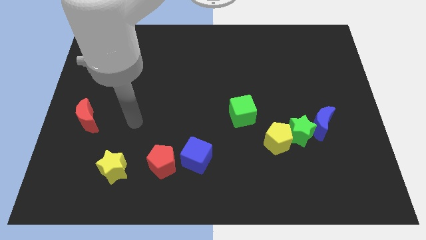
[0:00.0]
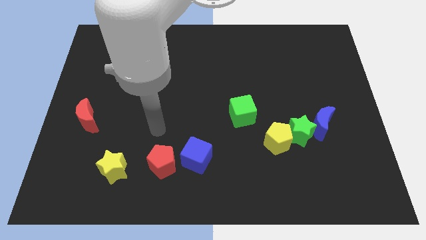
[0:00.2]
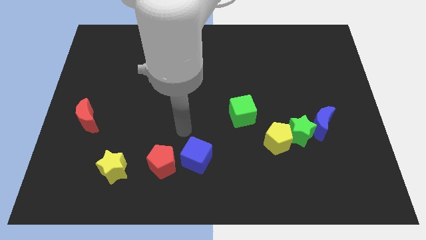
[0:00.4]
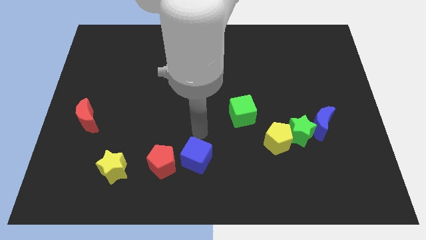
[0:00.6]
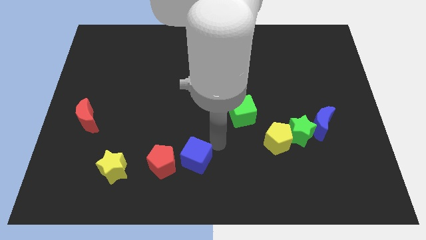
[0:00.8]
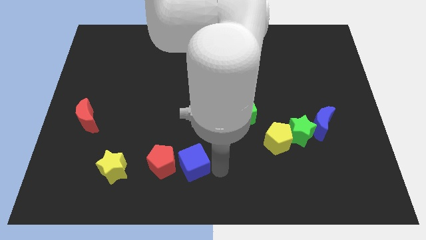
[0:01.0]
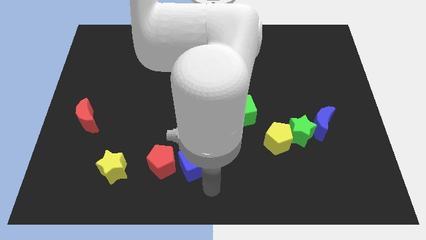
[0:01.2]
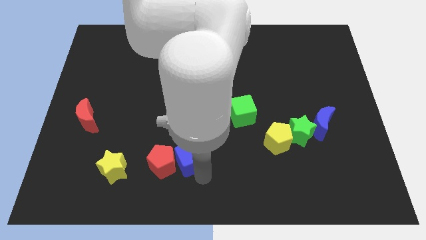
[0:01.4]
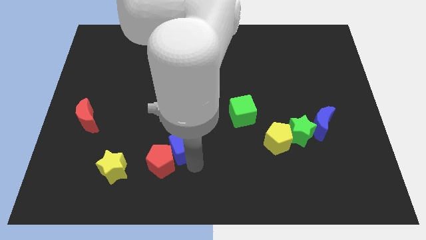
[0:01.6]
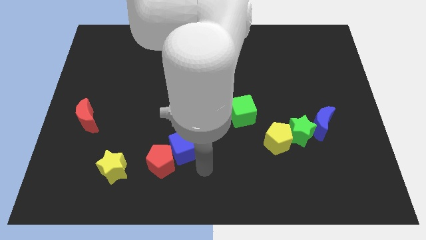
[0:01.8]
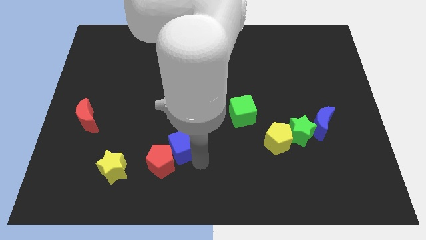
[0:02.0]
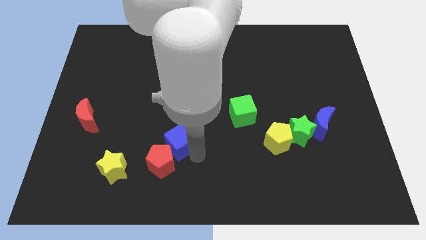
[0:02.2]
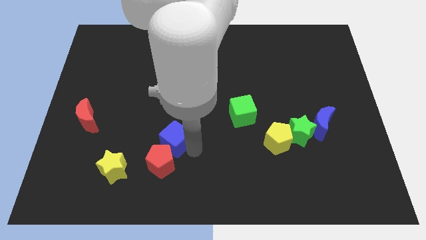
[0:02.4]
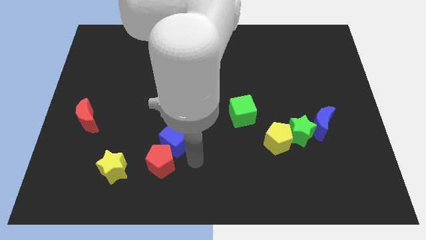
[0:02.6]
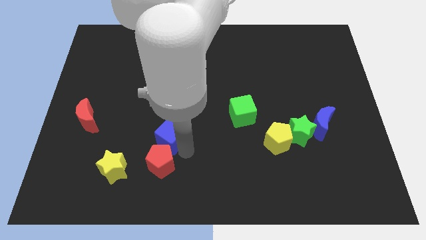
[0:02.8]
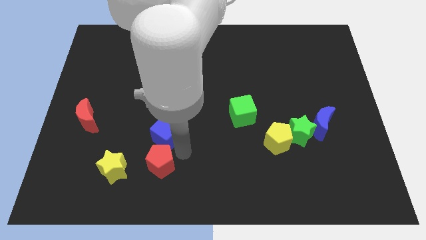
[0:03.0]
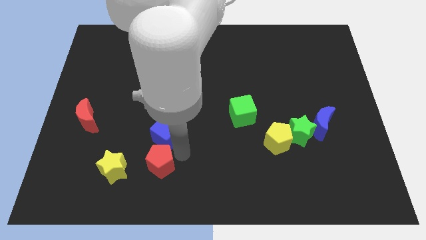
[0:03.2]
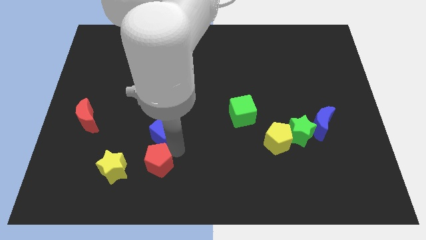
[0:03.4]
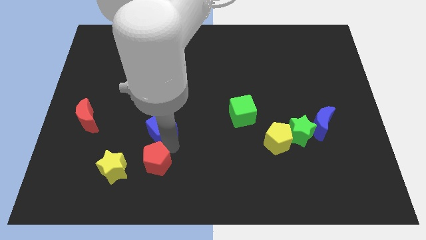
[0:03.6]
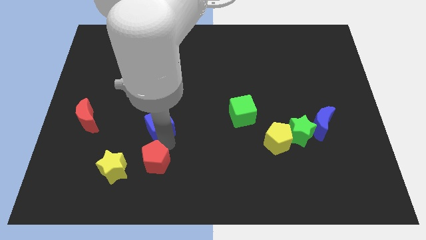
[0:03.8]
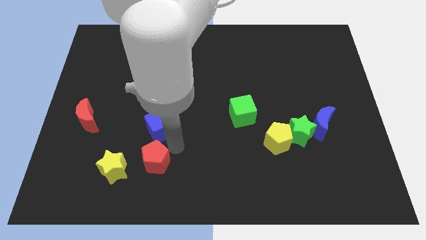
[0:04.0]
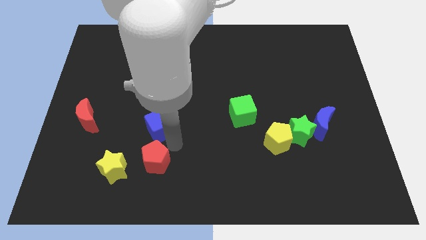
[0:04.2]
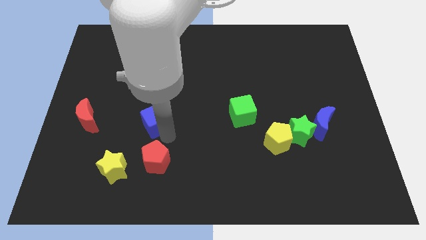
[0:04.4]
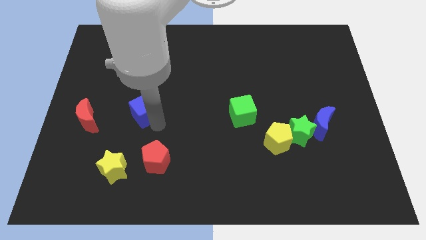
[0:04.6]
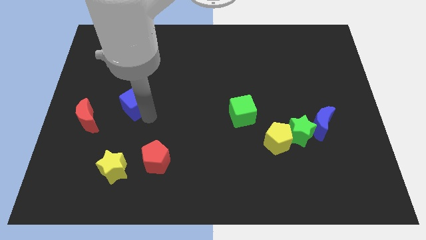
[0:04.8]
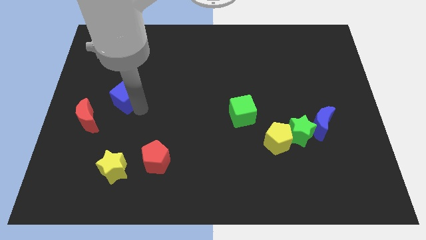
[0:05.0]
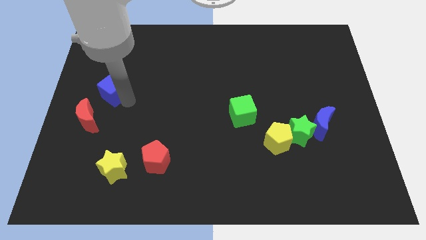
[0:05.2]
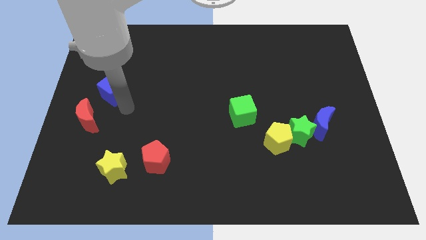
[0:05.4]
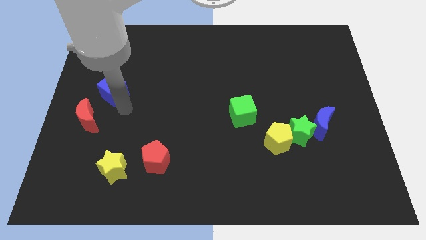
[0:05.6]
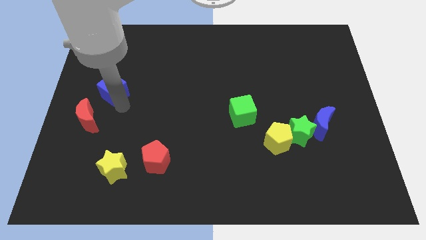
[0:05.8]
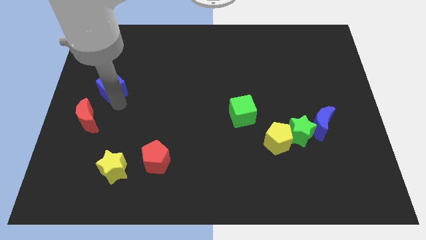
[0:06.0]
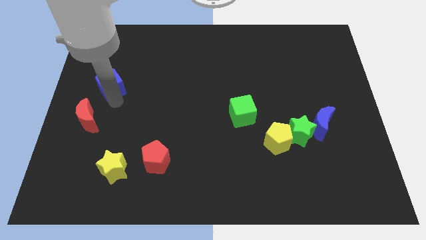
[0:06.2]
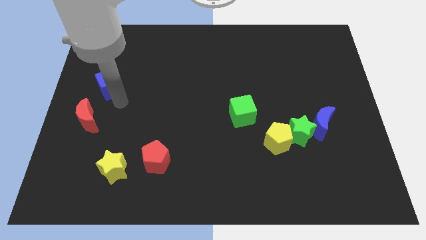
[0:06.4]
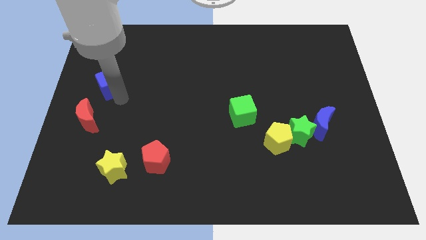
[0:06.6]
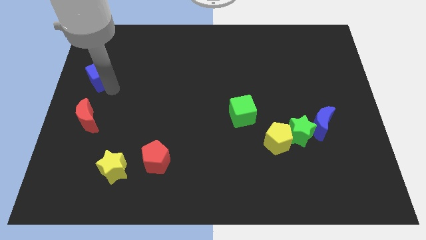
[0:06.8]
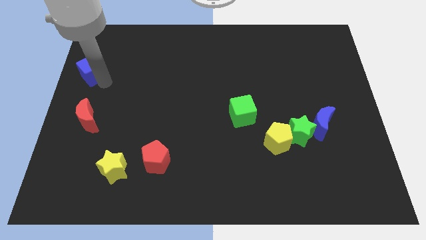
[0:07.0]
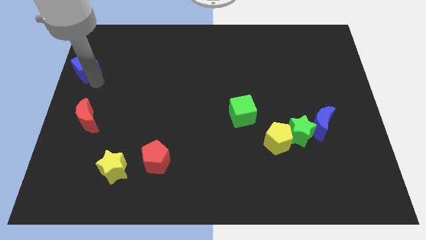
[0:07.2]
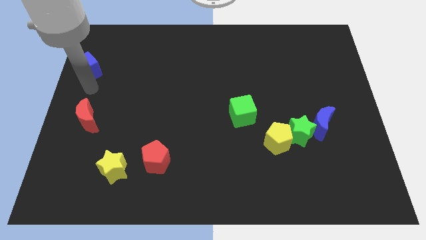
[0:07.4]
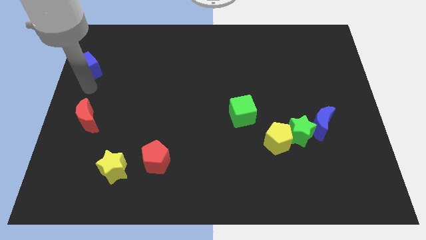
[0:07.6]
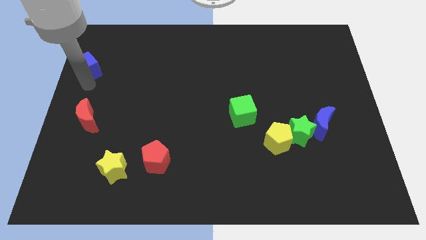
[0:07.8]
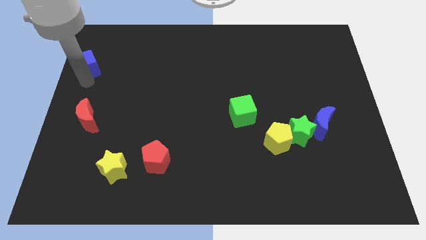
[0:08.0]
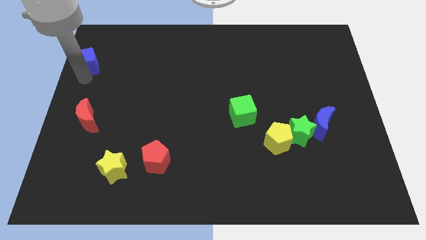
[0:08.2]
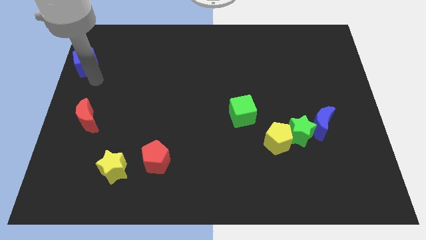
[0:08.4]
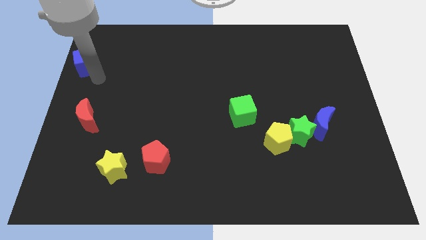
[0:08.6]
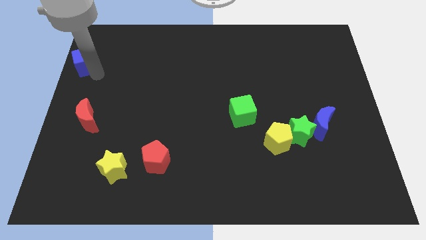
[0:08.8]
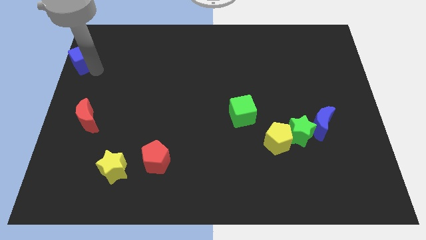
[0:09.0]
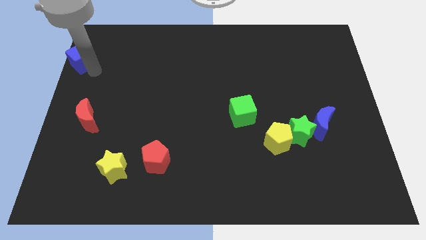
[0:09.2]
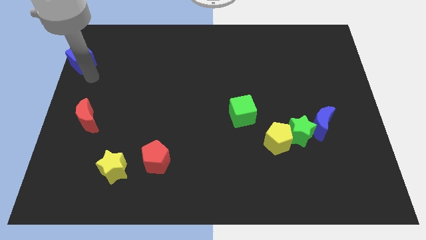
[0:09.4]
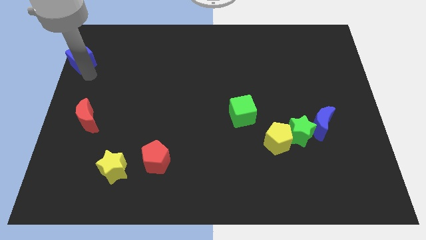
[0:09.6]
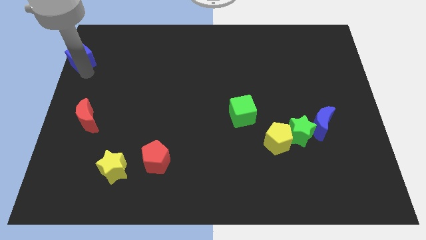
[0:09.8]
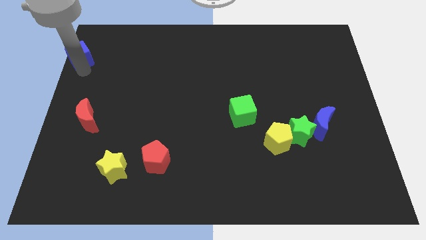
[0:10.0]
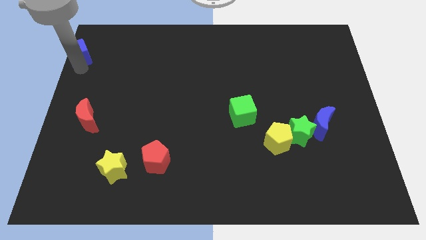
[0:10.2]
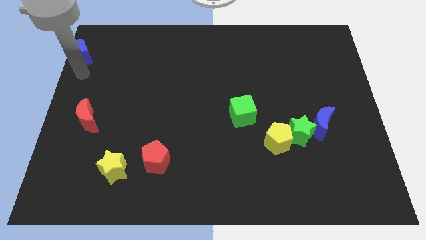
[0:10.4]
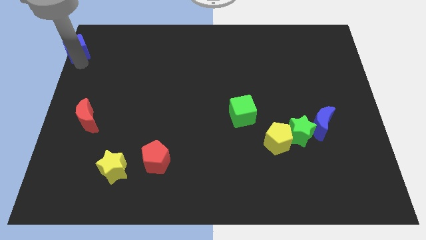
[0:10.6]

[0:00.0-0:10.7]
move the blue cube to the top left corner
